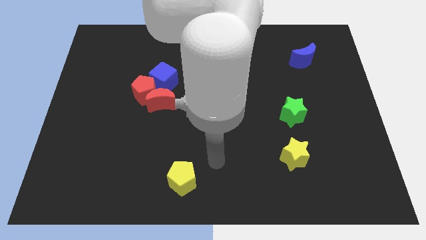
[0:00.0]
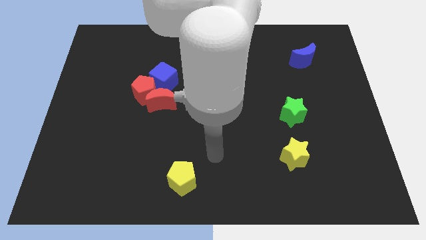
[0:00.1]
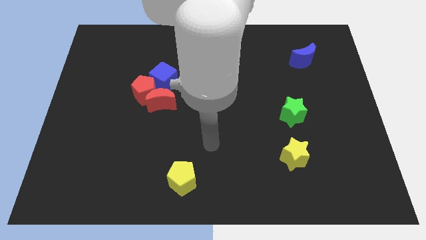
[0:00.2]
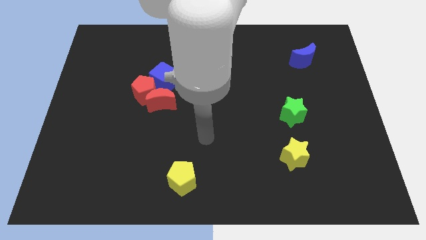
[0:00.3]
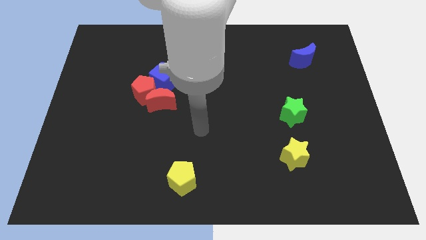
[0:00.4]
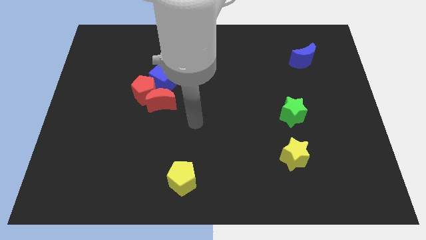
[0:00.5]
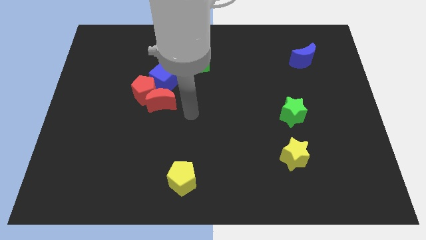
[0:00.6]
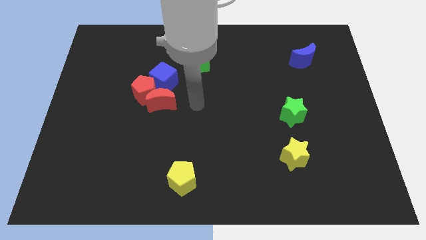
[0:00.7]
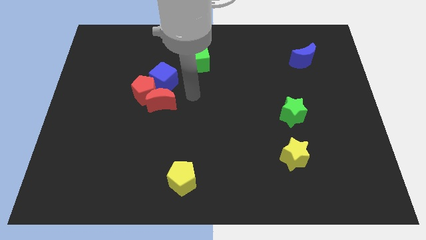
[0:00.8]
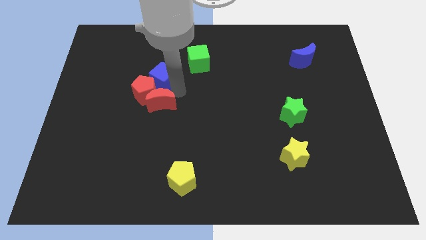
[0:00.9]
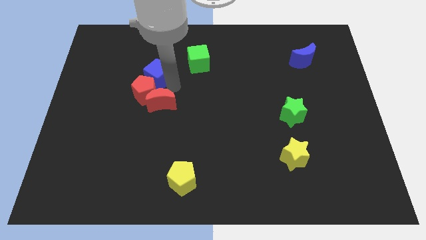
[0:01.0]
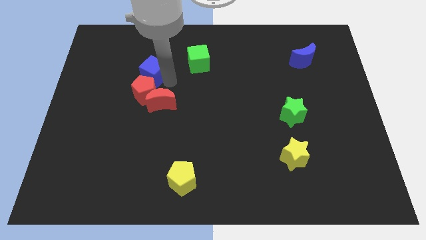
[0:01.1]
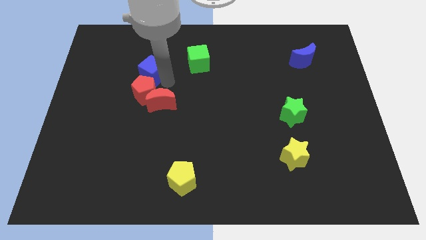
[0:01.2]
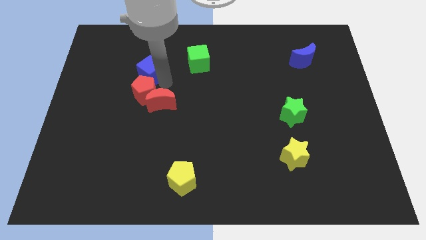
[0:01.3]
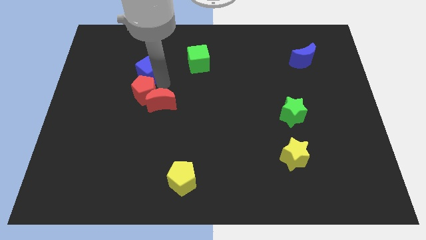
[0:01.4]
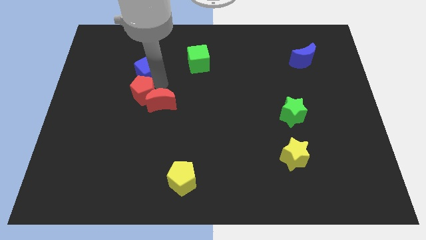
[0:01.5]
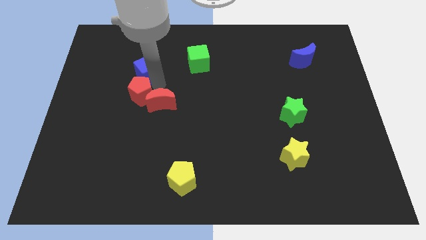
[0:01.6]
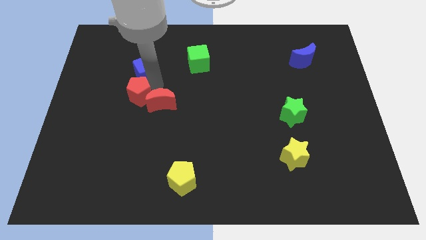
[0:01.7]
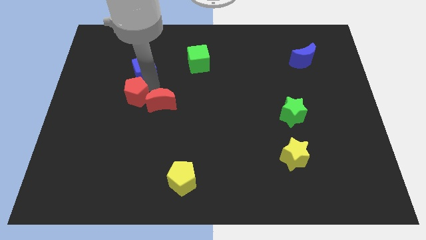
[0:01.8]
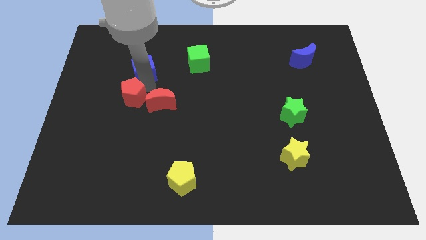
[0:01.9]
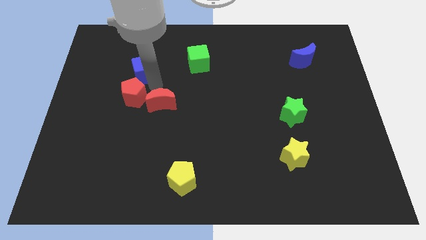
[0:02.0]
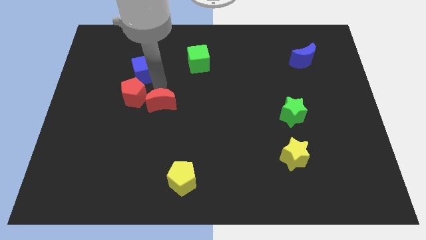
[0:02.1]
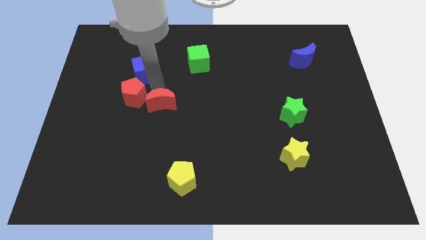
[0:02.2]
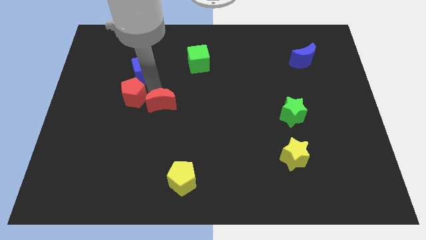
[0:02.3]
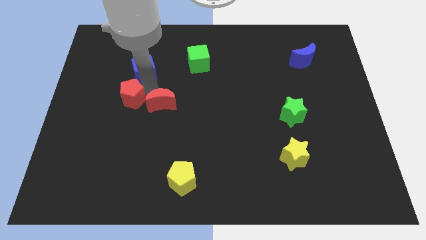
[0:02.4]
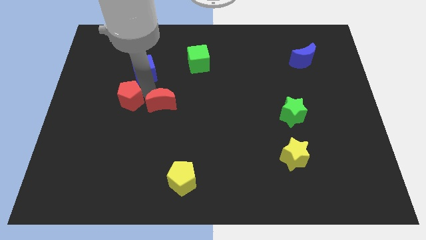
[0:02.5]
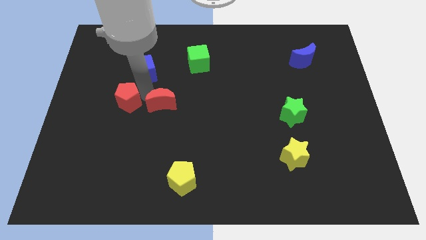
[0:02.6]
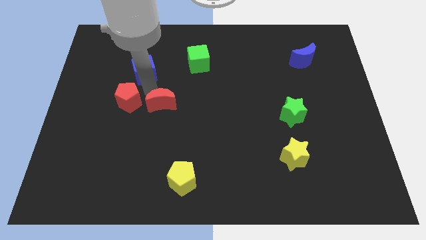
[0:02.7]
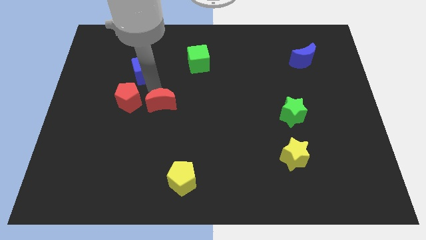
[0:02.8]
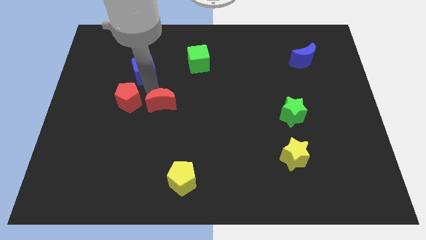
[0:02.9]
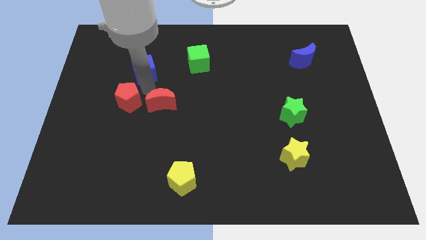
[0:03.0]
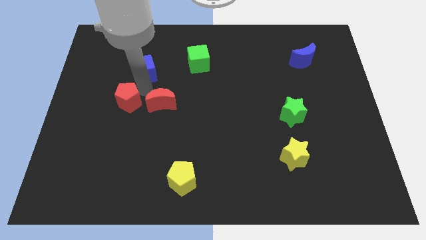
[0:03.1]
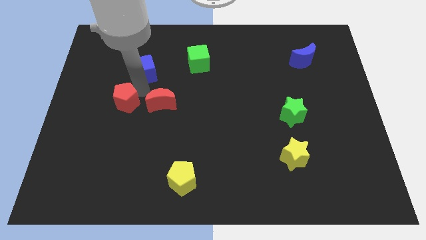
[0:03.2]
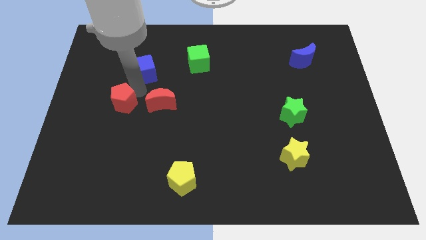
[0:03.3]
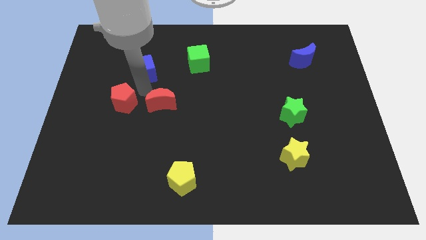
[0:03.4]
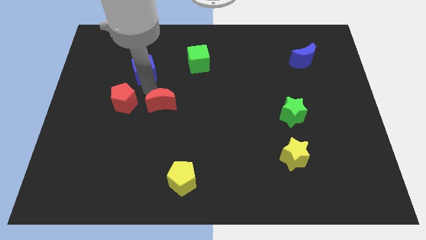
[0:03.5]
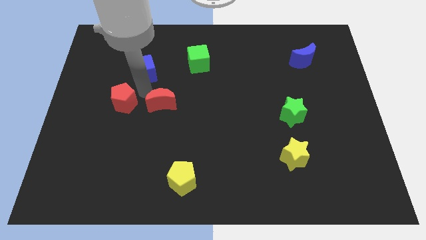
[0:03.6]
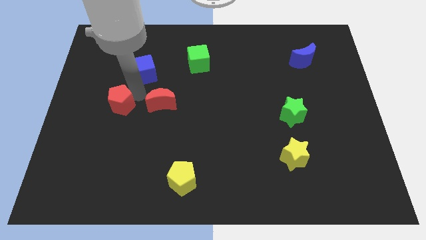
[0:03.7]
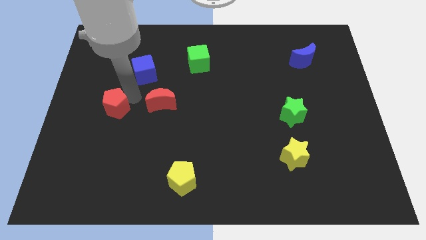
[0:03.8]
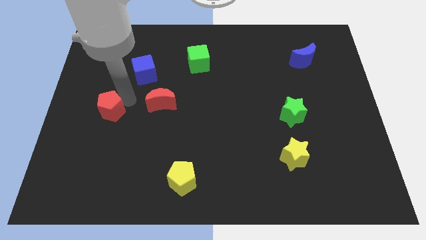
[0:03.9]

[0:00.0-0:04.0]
separate the red pentagon from the red moon and blue cube

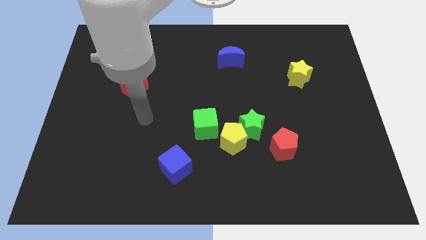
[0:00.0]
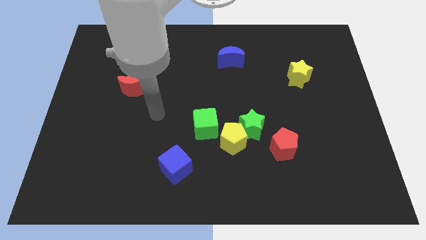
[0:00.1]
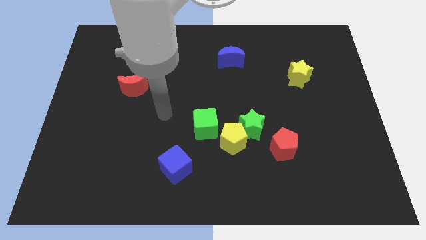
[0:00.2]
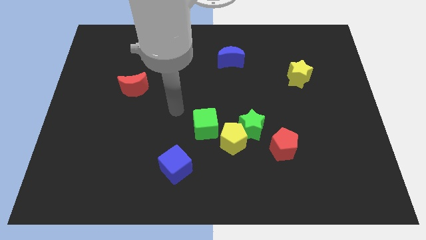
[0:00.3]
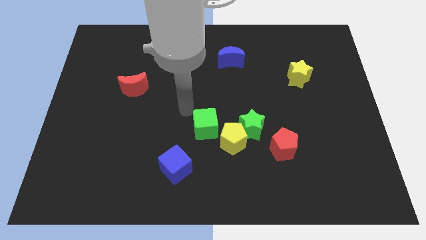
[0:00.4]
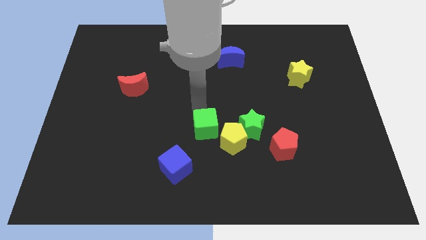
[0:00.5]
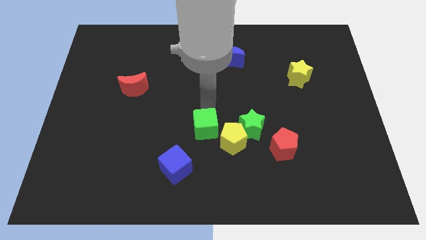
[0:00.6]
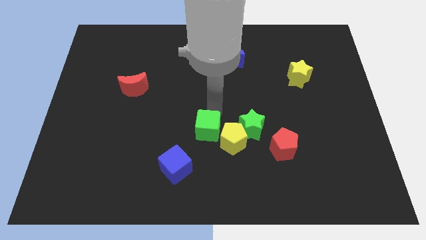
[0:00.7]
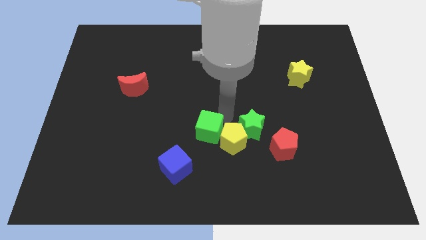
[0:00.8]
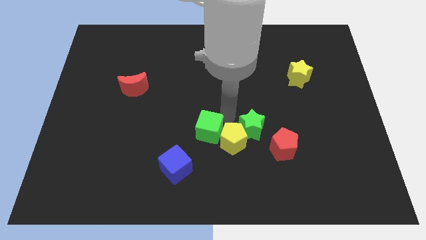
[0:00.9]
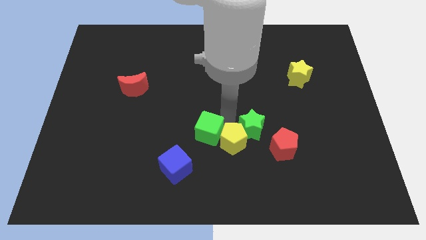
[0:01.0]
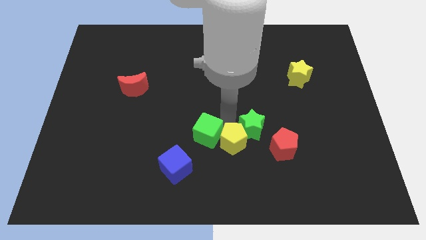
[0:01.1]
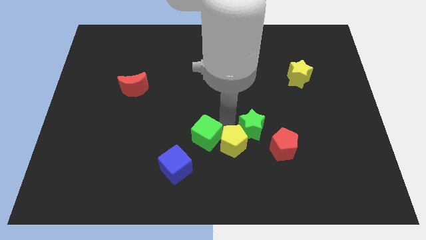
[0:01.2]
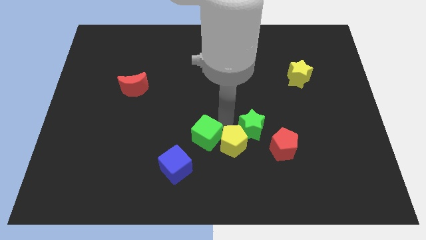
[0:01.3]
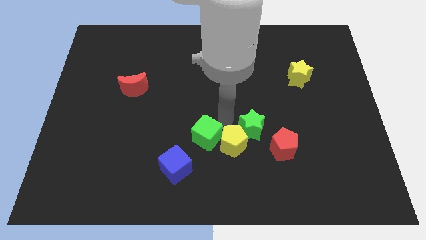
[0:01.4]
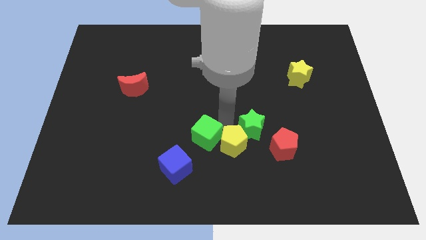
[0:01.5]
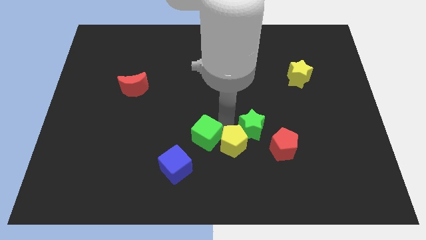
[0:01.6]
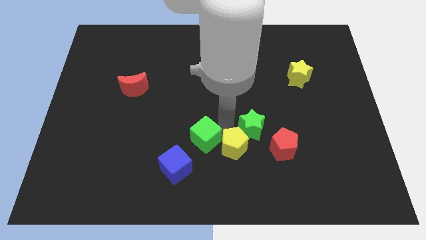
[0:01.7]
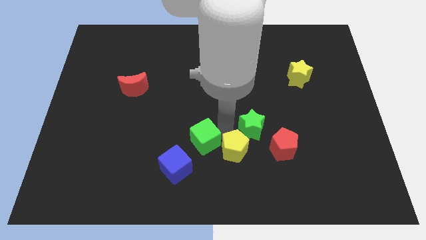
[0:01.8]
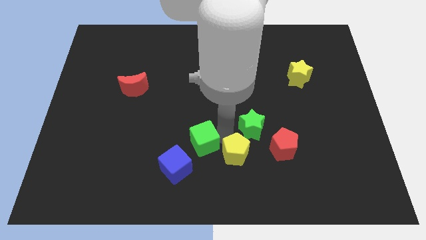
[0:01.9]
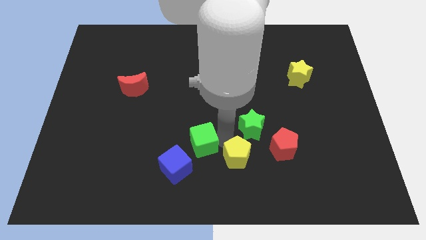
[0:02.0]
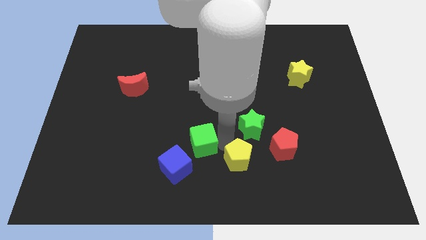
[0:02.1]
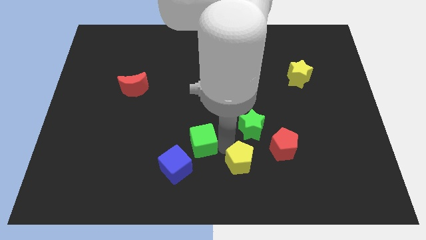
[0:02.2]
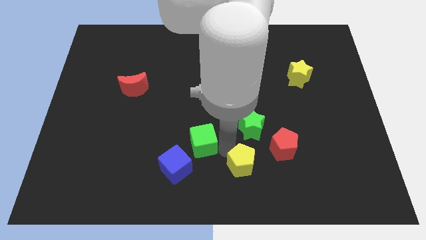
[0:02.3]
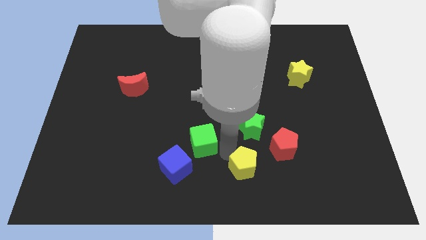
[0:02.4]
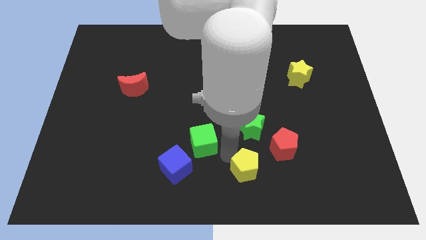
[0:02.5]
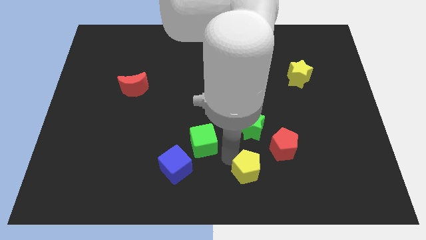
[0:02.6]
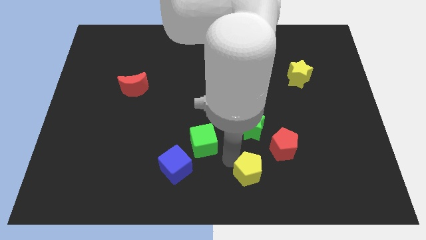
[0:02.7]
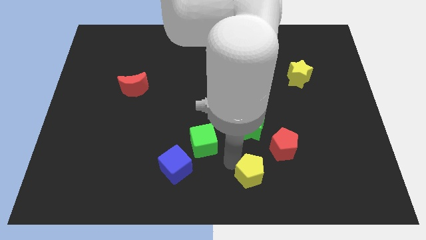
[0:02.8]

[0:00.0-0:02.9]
pull the yellow pentagon apart from the green star and green cube

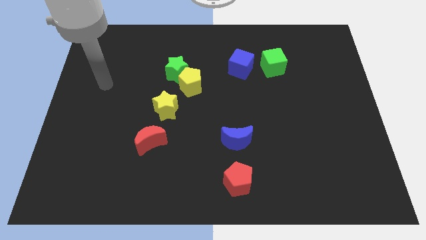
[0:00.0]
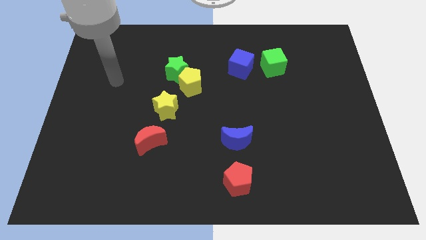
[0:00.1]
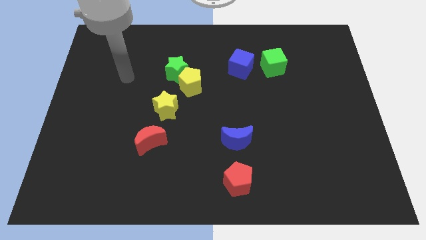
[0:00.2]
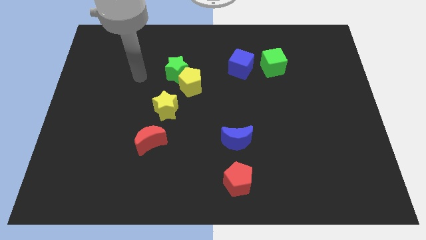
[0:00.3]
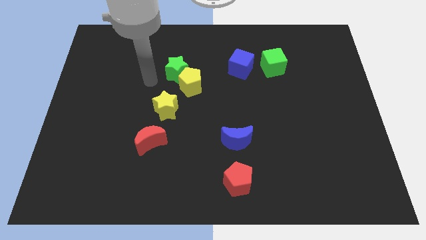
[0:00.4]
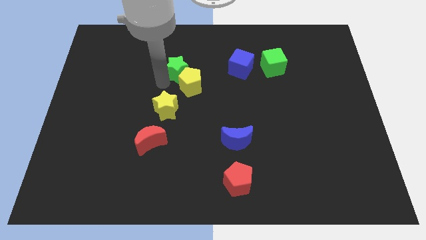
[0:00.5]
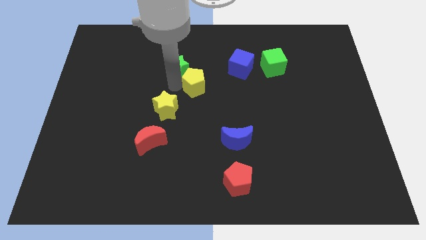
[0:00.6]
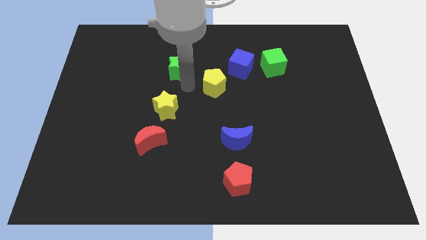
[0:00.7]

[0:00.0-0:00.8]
separate the green star from the yellow pentagon

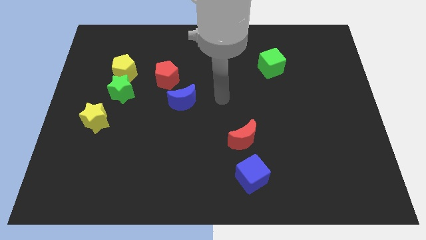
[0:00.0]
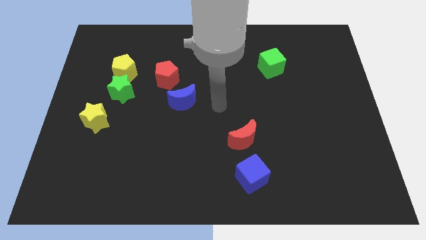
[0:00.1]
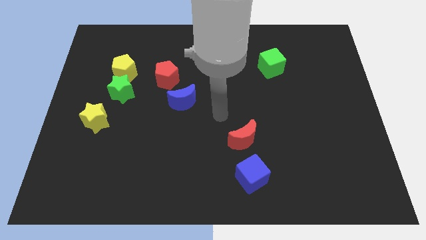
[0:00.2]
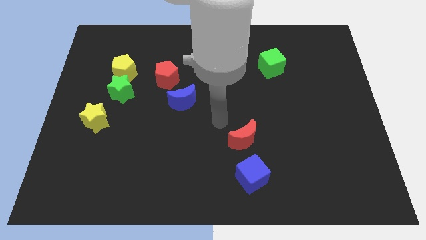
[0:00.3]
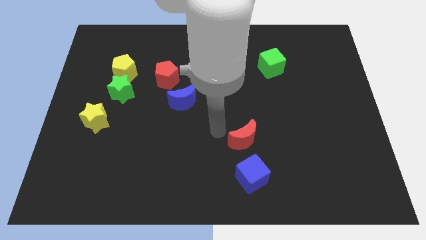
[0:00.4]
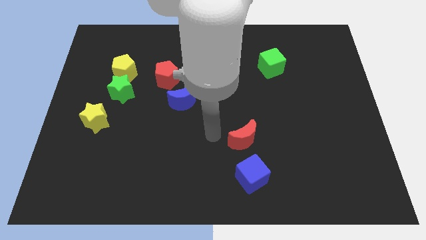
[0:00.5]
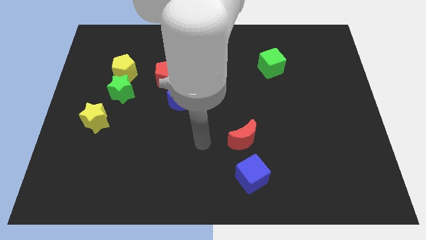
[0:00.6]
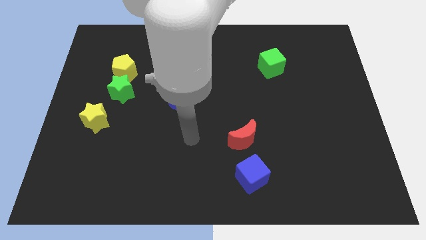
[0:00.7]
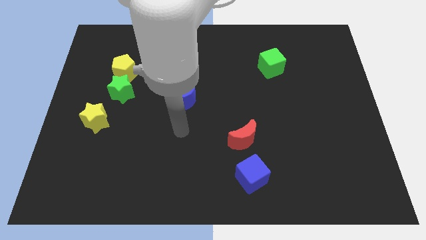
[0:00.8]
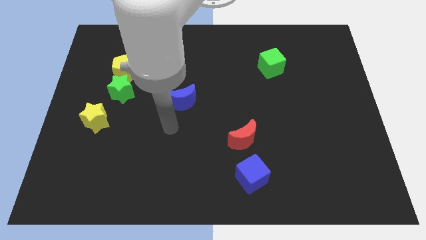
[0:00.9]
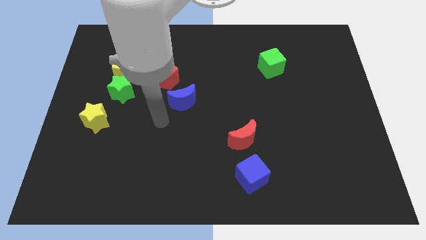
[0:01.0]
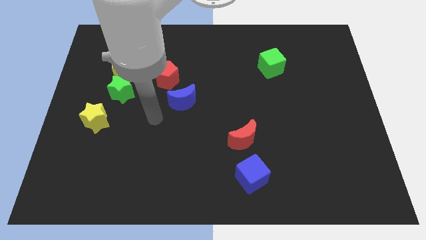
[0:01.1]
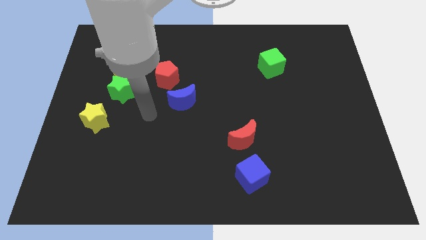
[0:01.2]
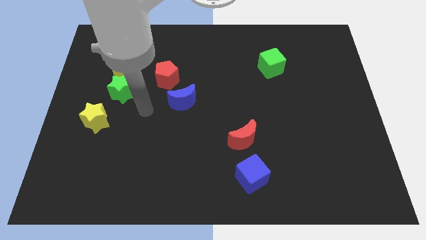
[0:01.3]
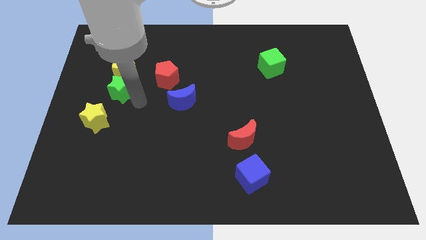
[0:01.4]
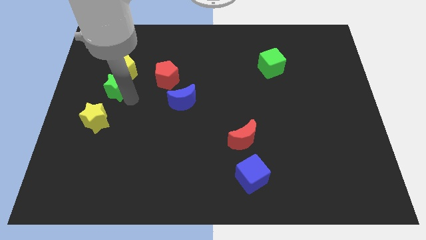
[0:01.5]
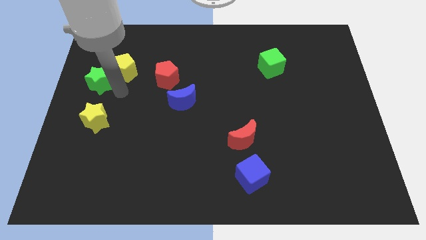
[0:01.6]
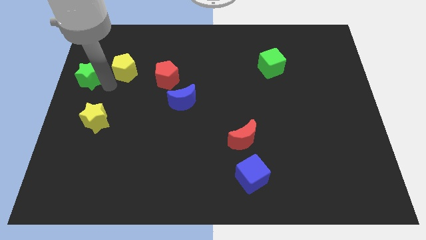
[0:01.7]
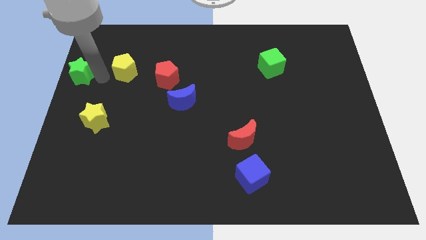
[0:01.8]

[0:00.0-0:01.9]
move the yellow pentagon away from the green star
